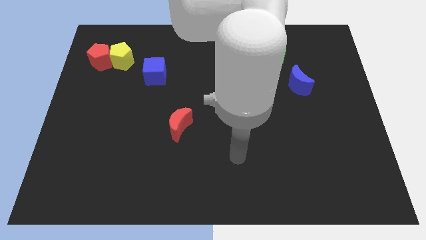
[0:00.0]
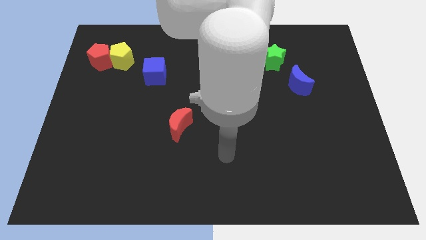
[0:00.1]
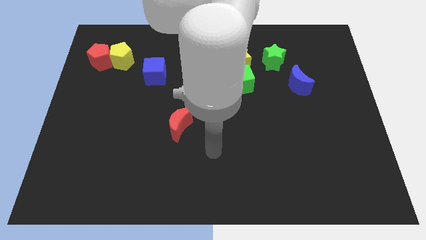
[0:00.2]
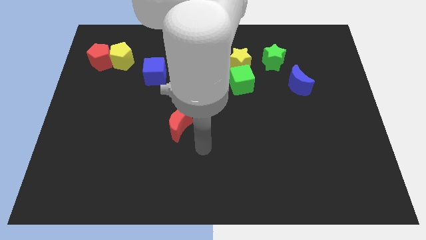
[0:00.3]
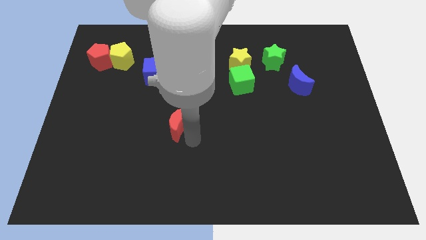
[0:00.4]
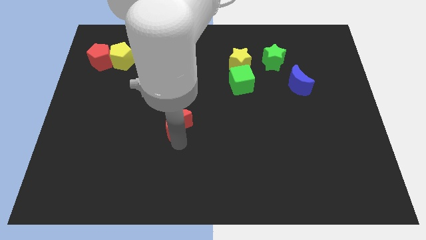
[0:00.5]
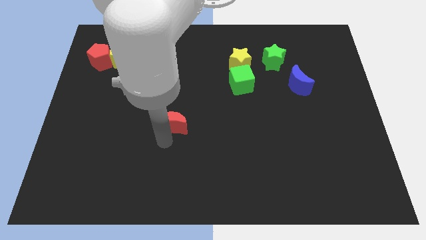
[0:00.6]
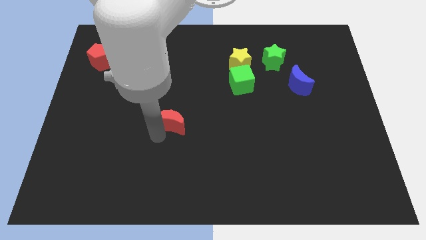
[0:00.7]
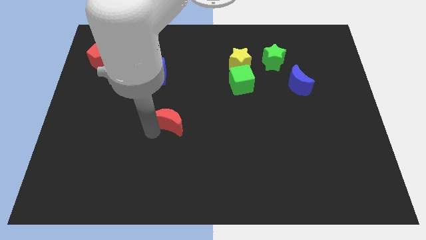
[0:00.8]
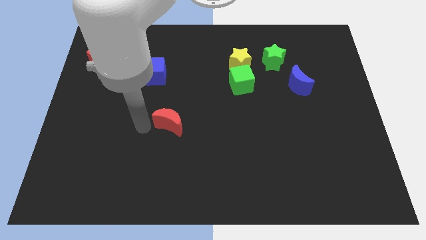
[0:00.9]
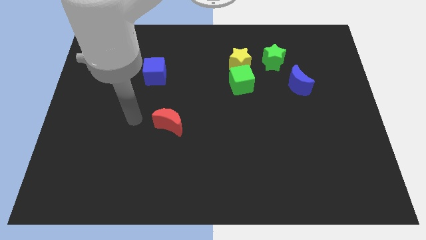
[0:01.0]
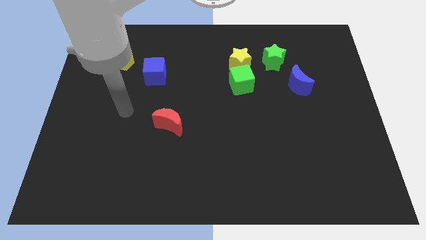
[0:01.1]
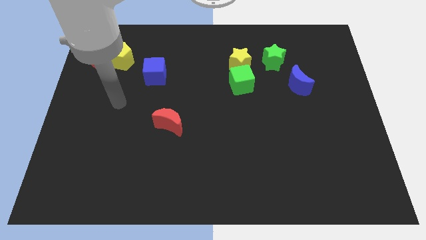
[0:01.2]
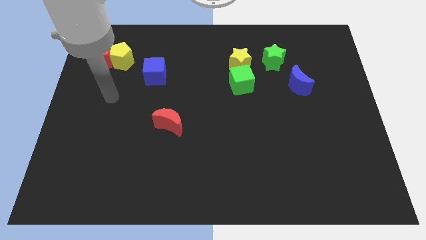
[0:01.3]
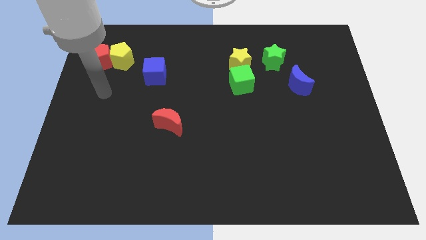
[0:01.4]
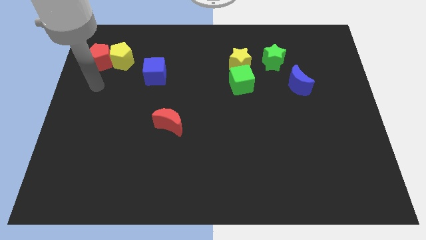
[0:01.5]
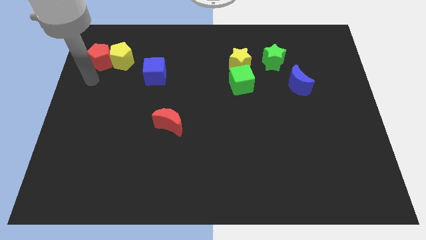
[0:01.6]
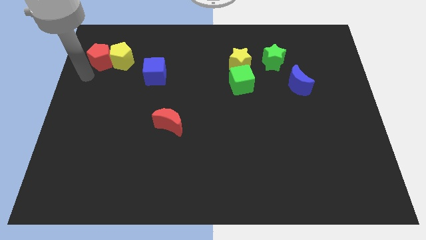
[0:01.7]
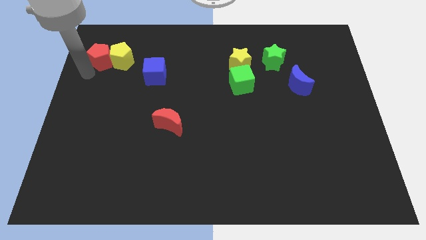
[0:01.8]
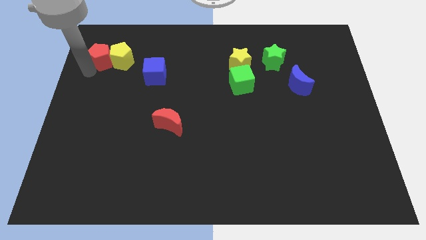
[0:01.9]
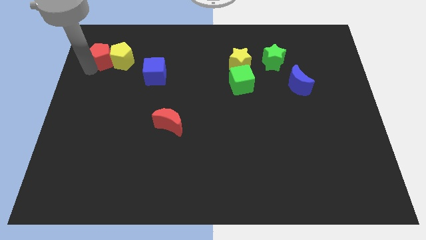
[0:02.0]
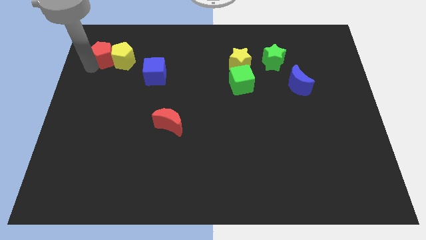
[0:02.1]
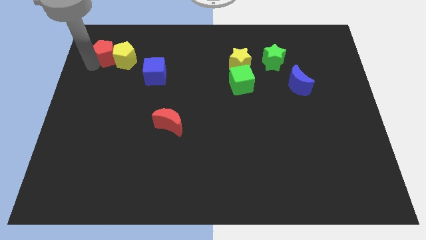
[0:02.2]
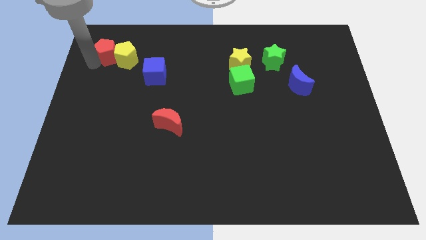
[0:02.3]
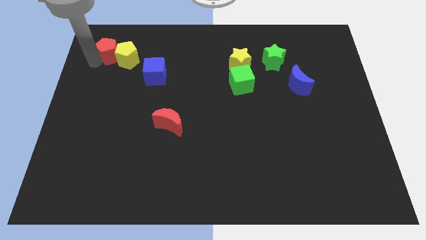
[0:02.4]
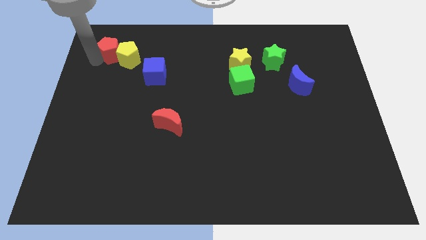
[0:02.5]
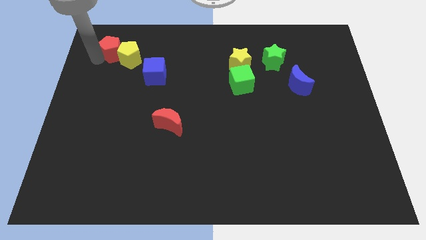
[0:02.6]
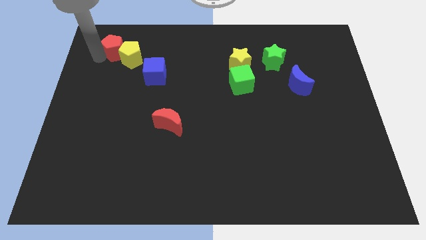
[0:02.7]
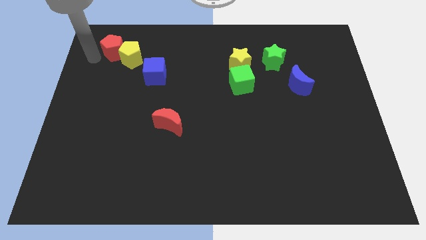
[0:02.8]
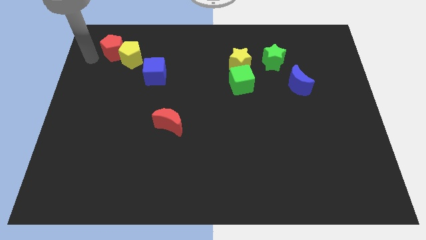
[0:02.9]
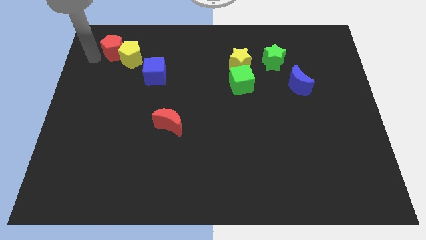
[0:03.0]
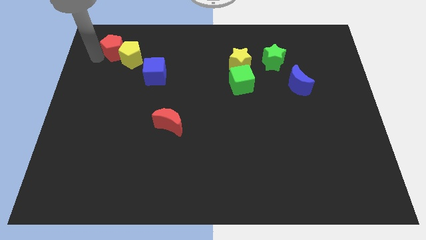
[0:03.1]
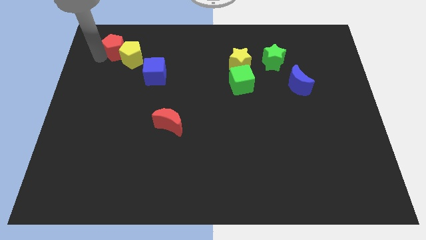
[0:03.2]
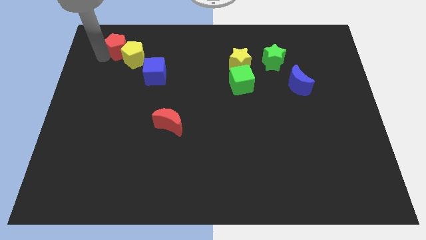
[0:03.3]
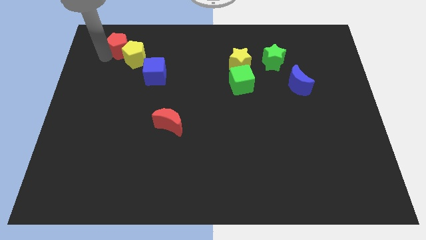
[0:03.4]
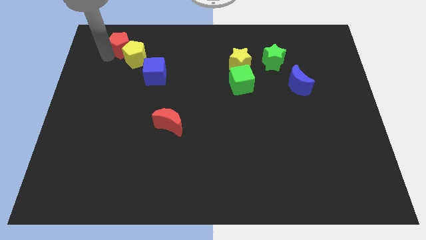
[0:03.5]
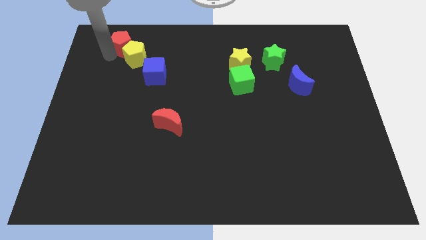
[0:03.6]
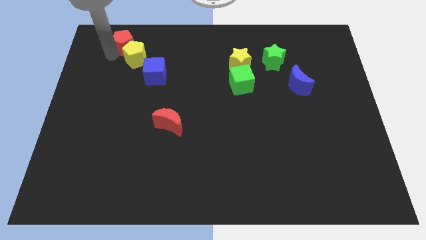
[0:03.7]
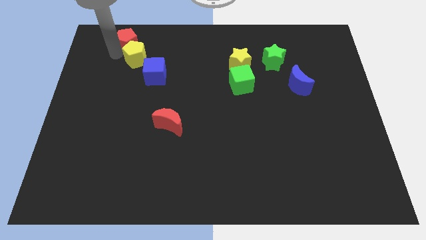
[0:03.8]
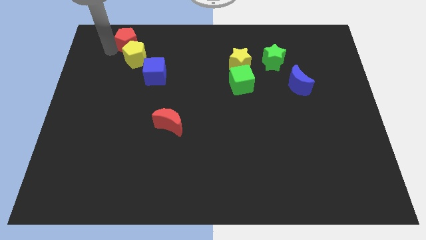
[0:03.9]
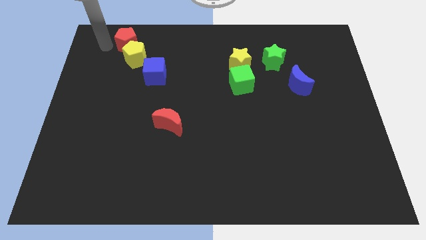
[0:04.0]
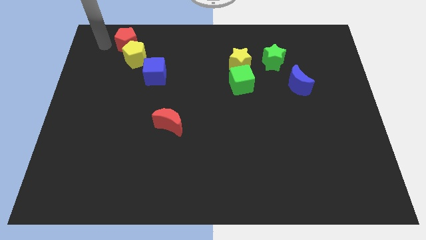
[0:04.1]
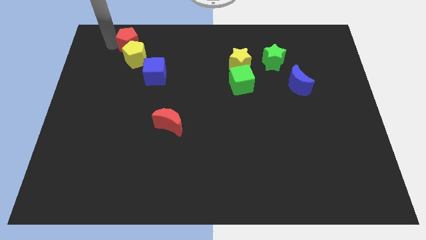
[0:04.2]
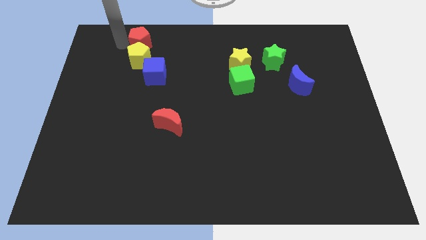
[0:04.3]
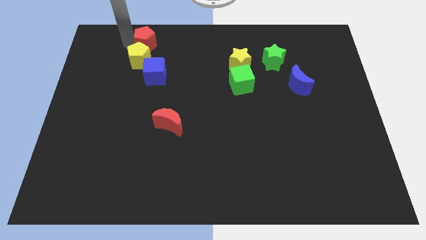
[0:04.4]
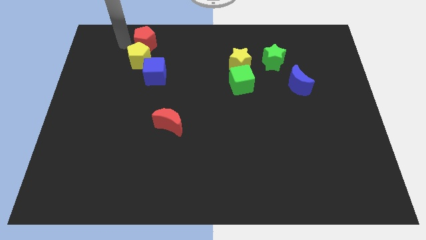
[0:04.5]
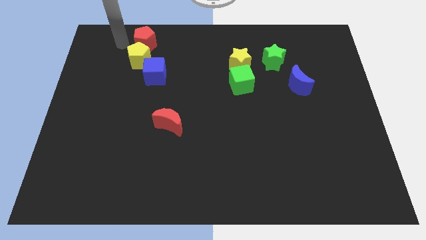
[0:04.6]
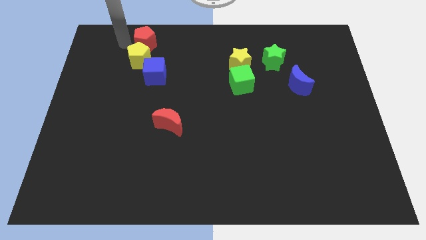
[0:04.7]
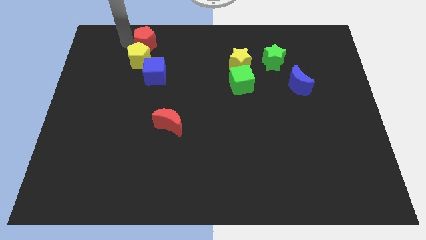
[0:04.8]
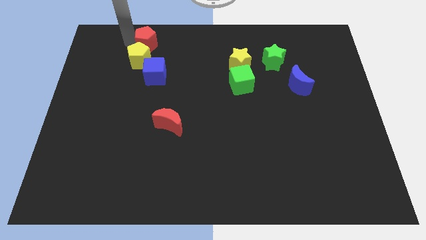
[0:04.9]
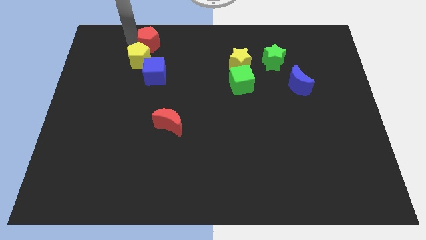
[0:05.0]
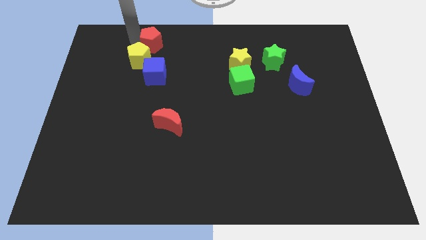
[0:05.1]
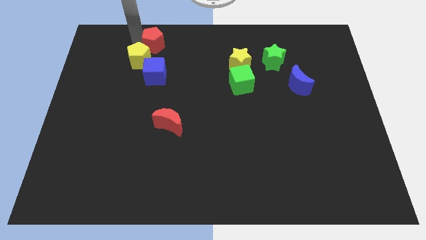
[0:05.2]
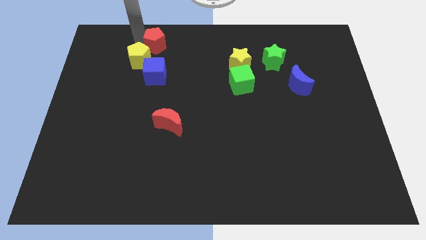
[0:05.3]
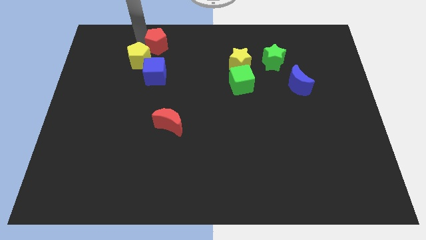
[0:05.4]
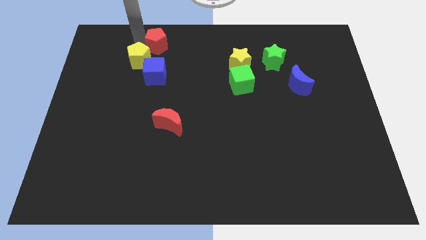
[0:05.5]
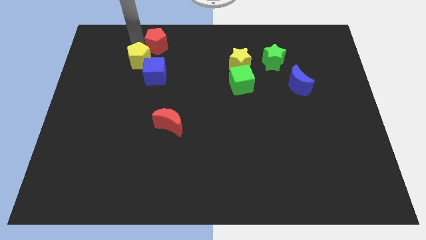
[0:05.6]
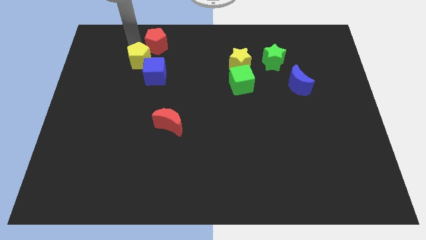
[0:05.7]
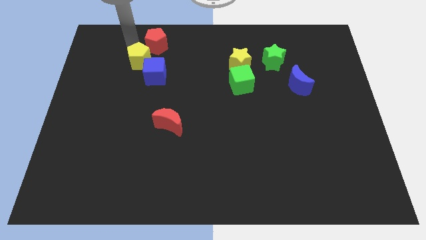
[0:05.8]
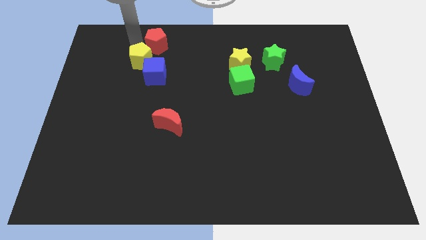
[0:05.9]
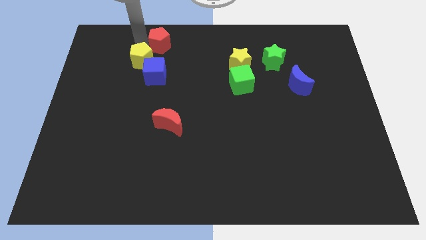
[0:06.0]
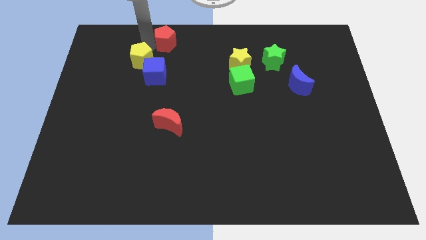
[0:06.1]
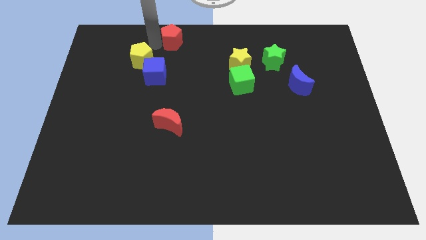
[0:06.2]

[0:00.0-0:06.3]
put the red pentagon to the towards your base
